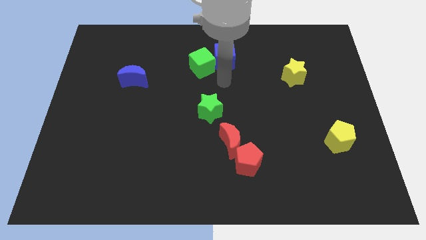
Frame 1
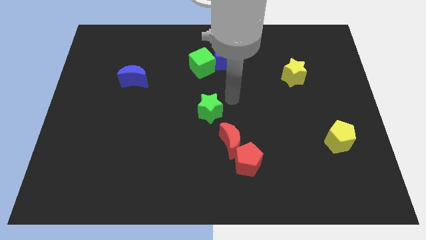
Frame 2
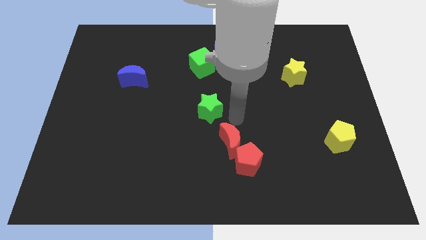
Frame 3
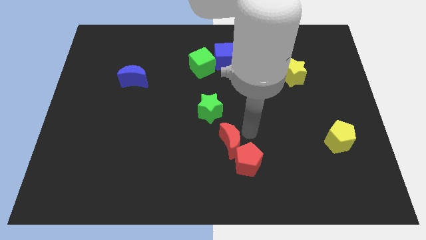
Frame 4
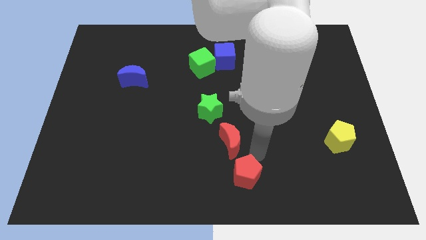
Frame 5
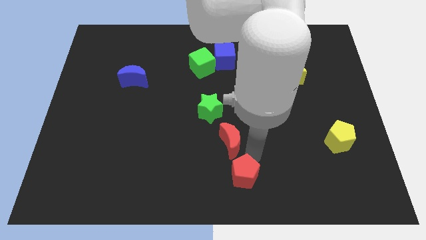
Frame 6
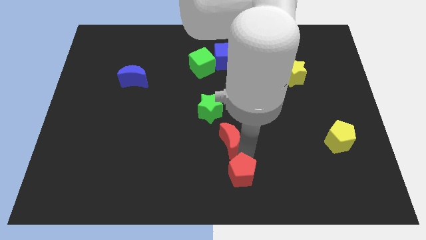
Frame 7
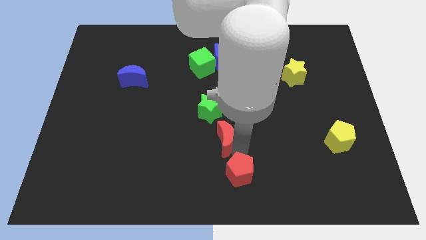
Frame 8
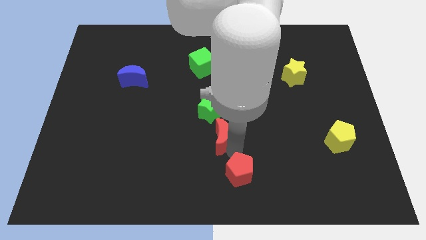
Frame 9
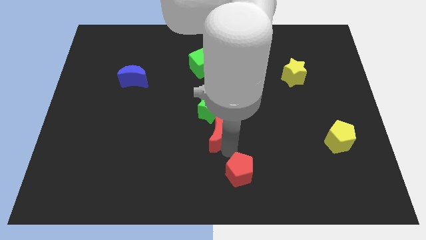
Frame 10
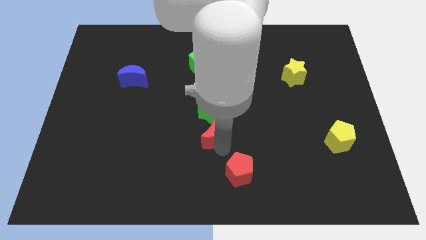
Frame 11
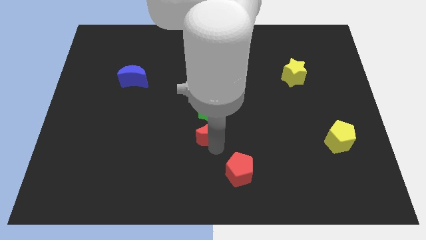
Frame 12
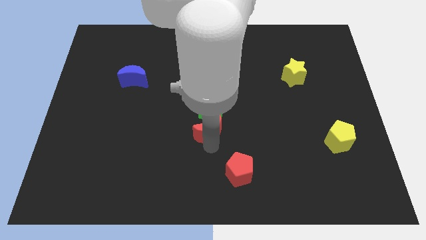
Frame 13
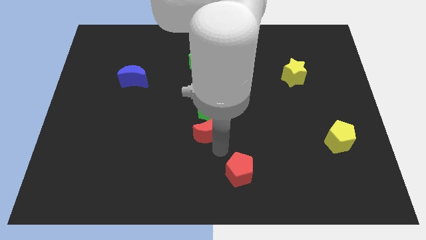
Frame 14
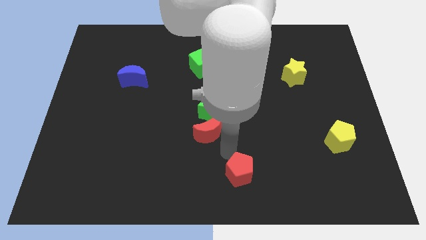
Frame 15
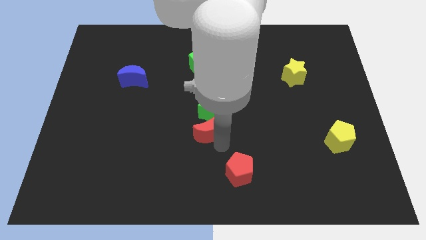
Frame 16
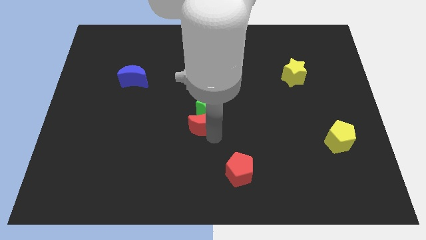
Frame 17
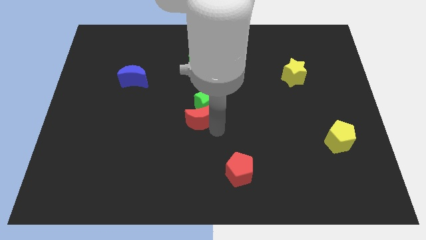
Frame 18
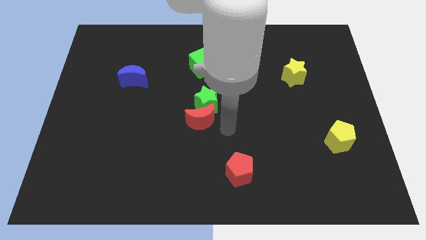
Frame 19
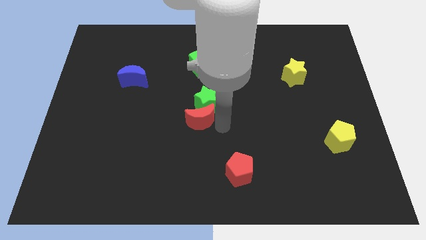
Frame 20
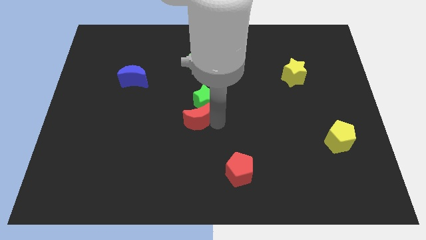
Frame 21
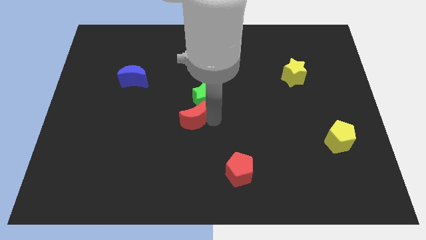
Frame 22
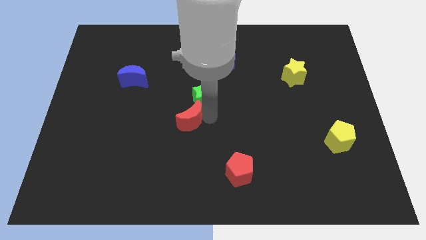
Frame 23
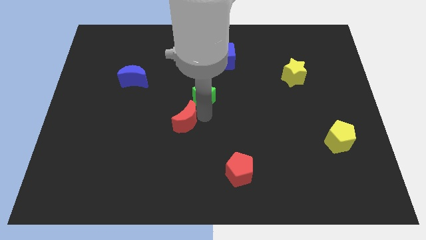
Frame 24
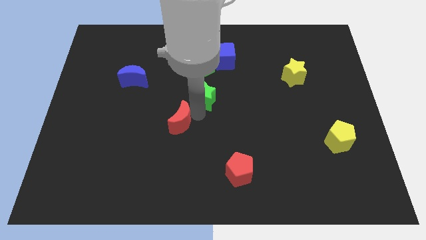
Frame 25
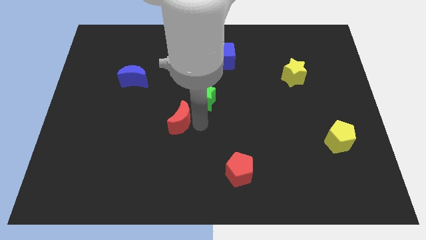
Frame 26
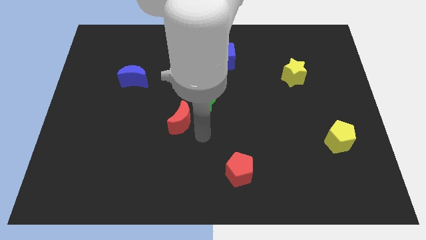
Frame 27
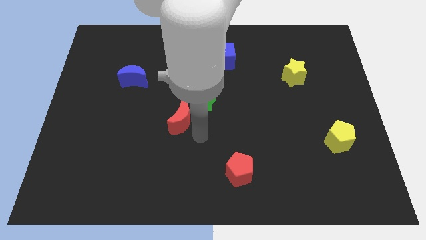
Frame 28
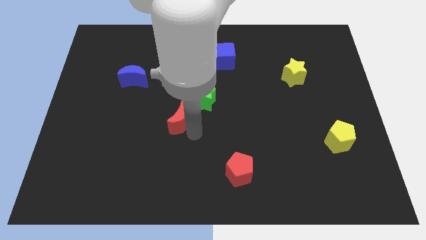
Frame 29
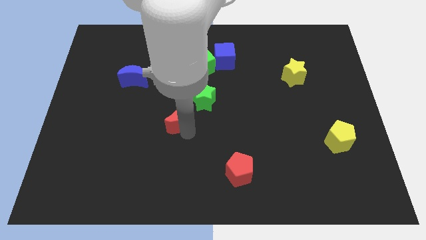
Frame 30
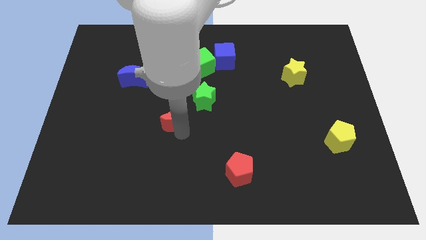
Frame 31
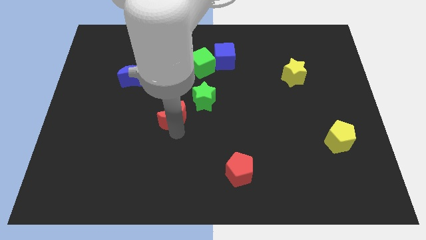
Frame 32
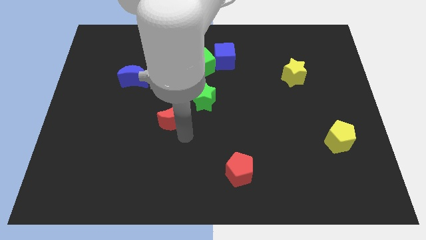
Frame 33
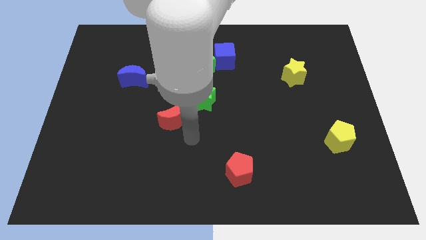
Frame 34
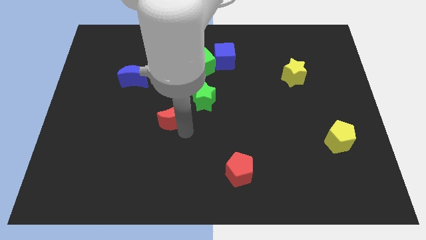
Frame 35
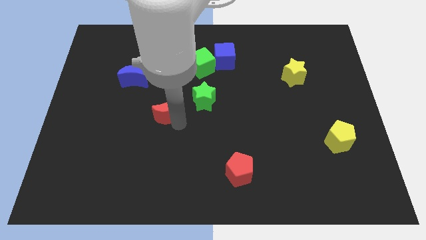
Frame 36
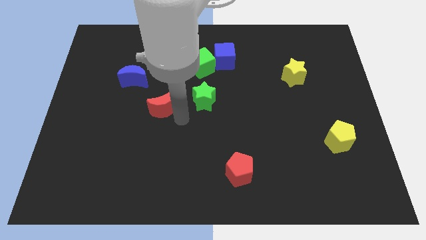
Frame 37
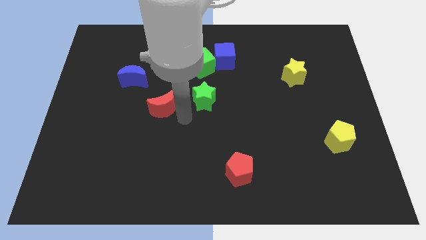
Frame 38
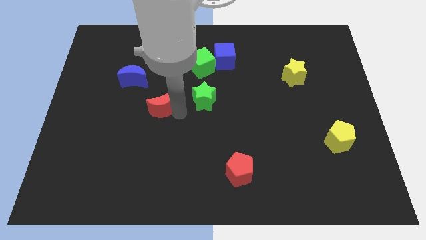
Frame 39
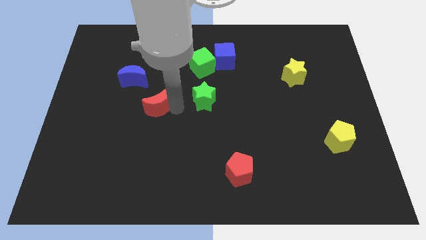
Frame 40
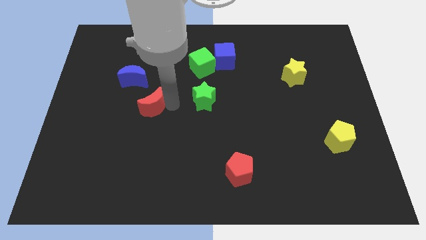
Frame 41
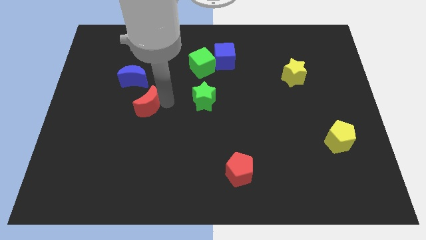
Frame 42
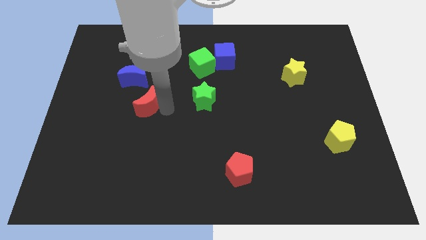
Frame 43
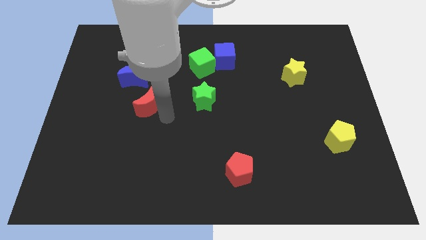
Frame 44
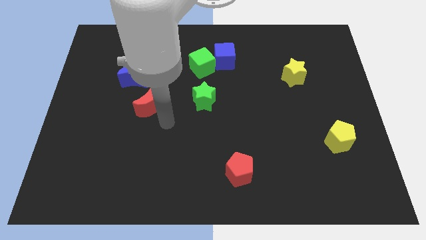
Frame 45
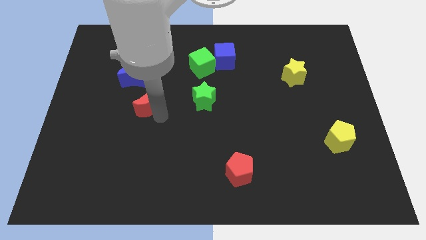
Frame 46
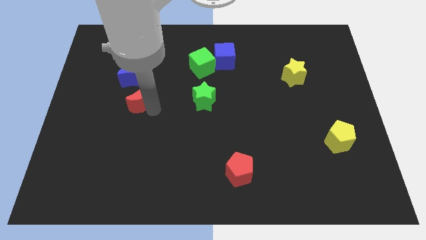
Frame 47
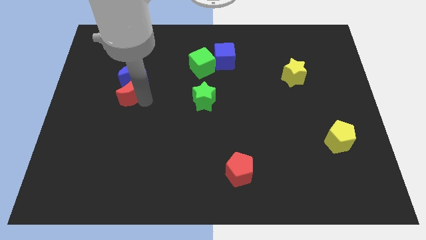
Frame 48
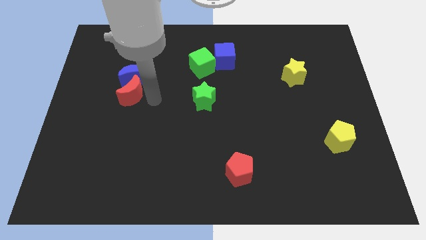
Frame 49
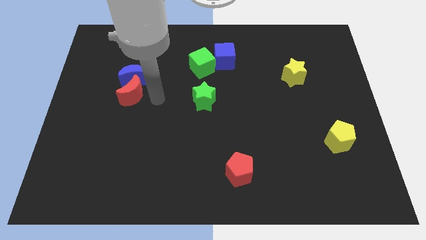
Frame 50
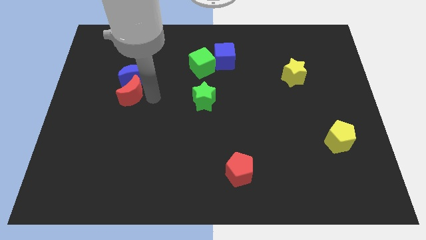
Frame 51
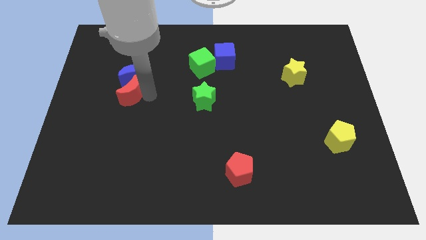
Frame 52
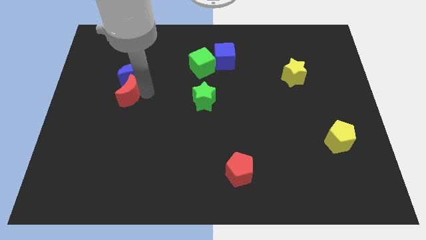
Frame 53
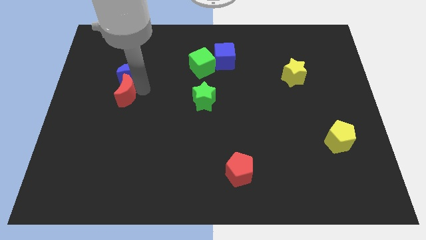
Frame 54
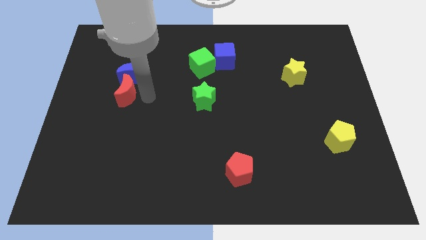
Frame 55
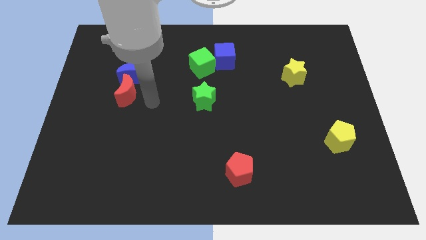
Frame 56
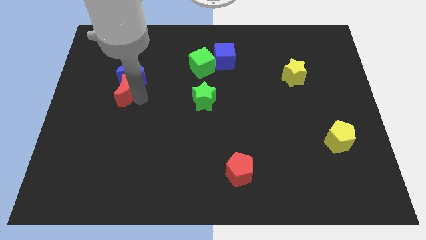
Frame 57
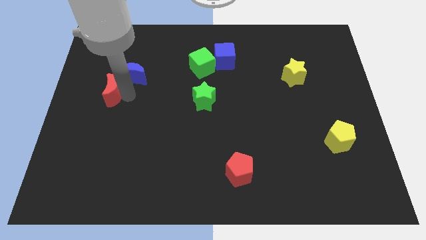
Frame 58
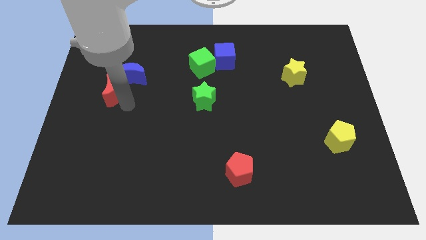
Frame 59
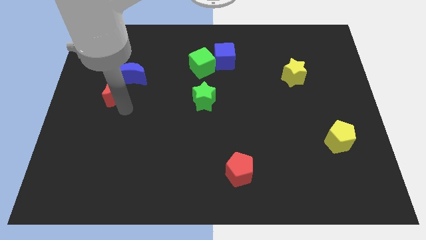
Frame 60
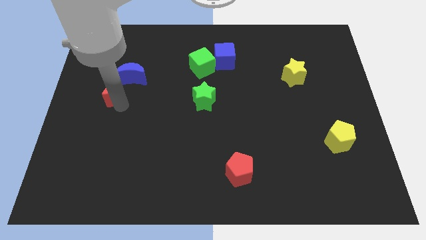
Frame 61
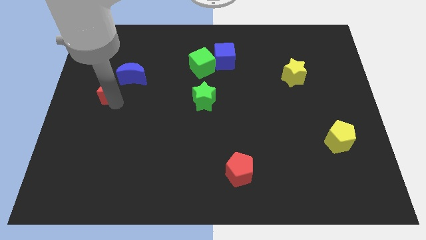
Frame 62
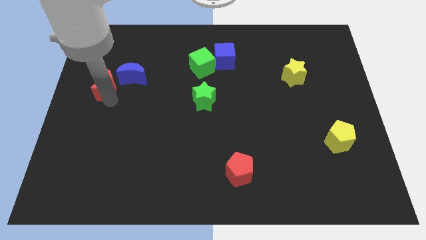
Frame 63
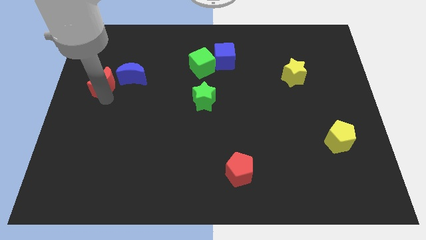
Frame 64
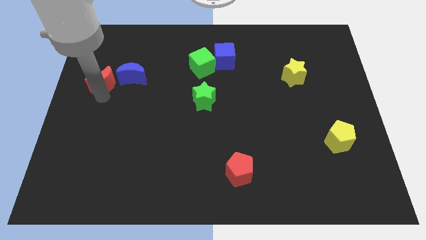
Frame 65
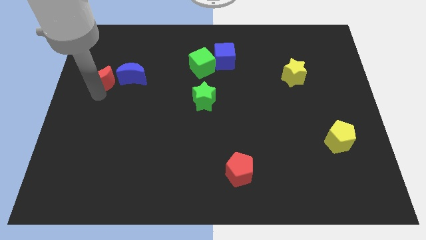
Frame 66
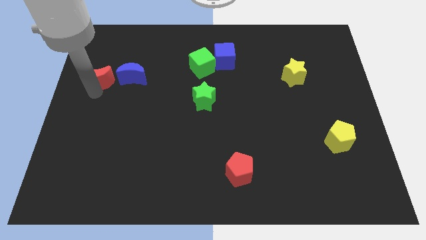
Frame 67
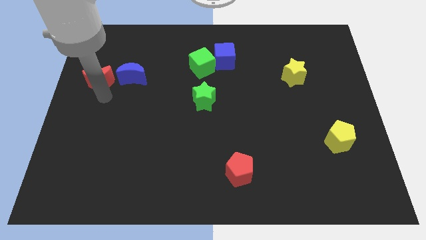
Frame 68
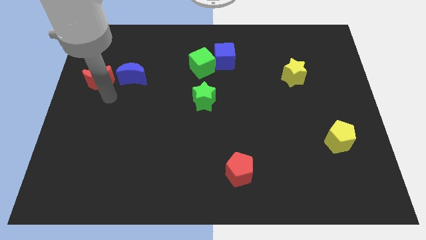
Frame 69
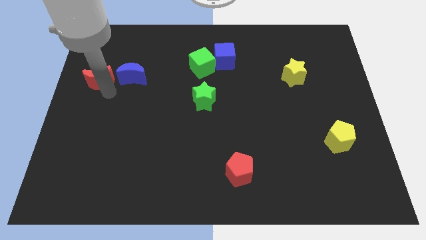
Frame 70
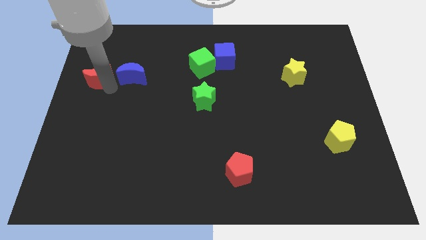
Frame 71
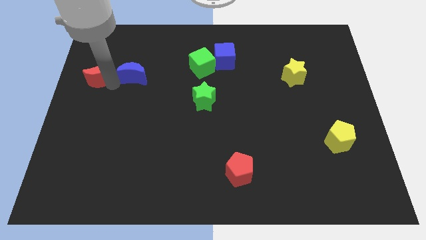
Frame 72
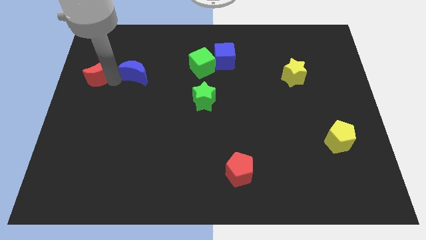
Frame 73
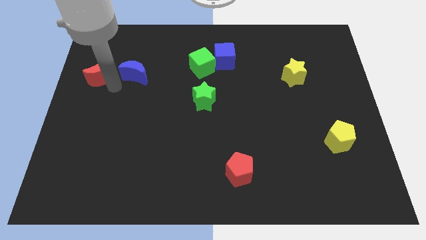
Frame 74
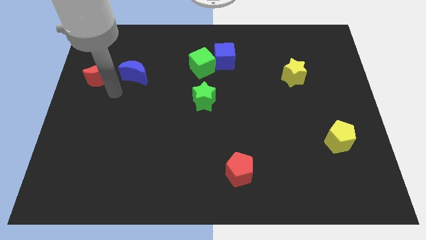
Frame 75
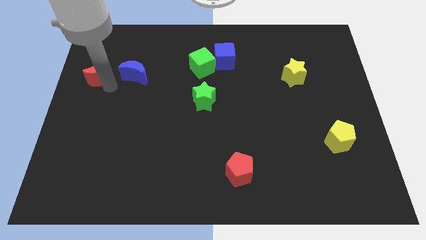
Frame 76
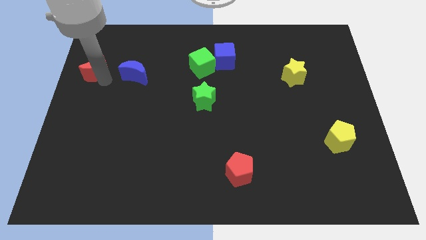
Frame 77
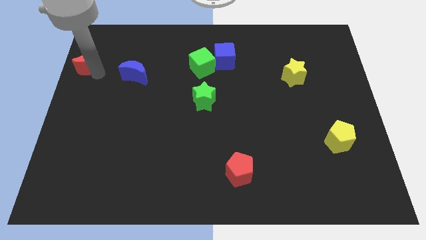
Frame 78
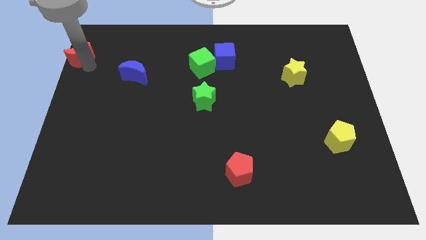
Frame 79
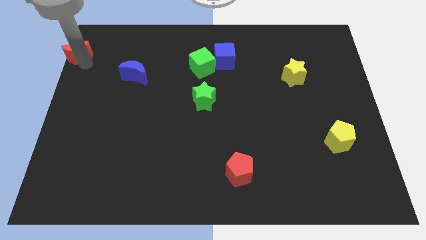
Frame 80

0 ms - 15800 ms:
slide the red moon to the top left corner

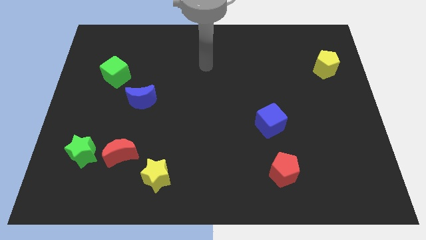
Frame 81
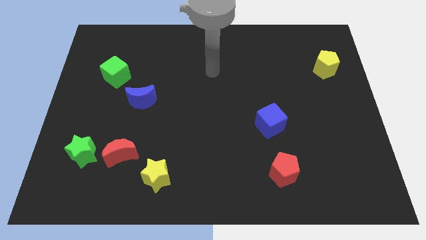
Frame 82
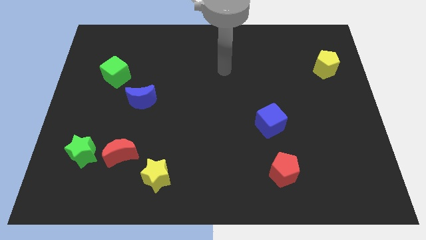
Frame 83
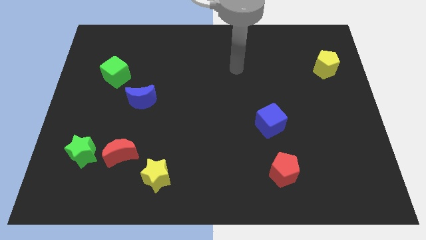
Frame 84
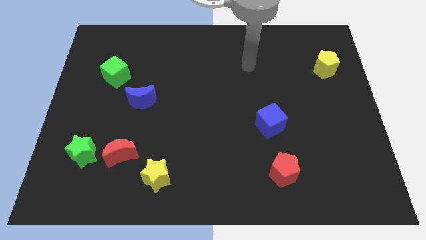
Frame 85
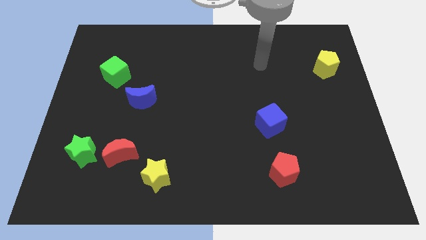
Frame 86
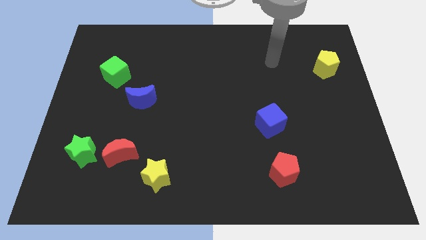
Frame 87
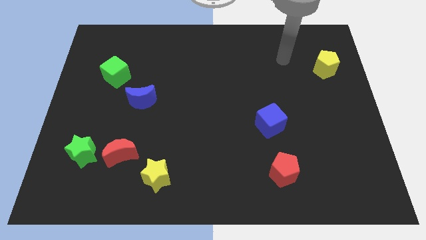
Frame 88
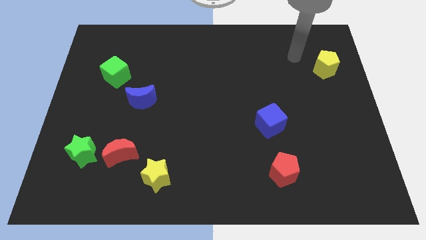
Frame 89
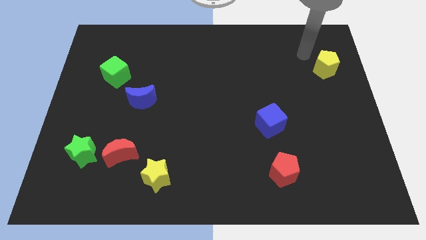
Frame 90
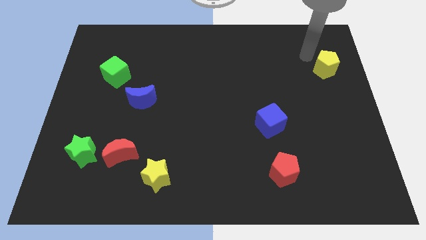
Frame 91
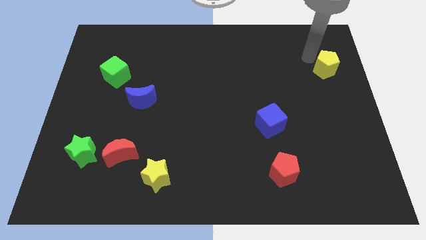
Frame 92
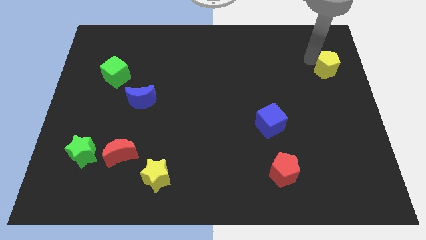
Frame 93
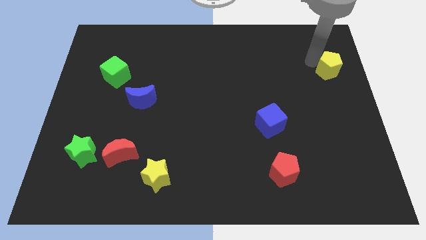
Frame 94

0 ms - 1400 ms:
put the yellow pentagon to the center right
